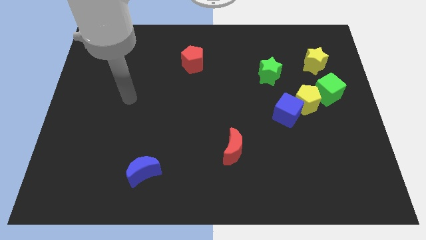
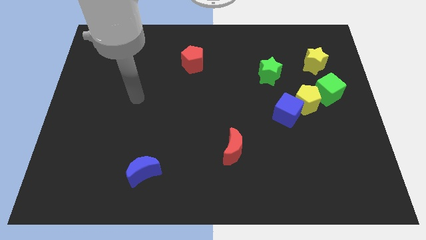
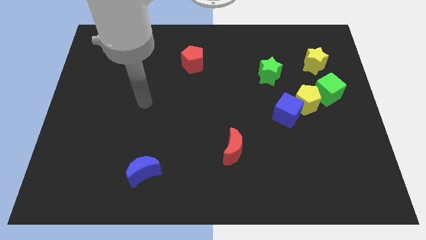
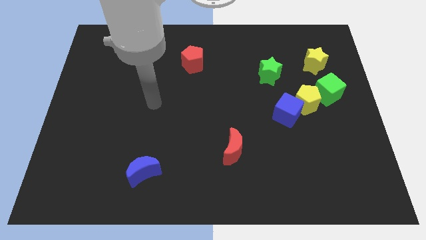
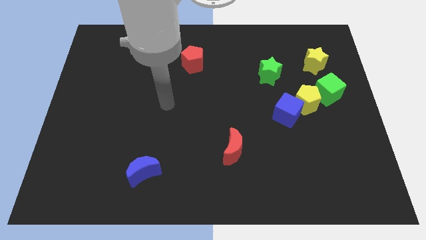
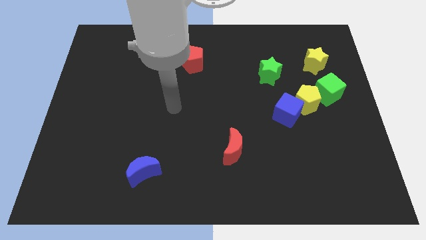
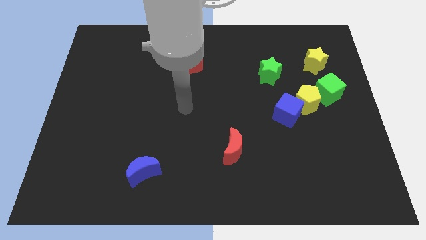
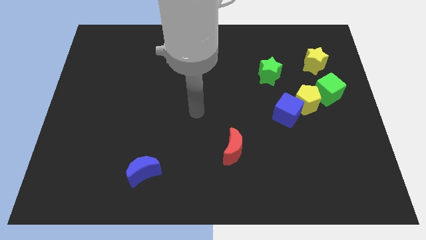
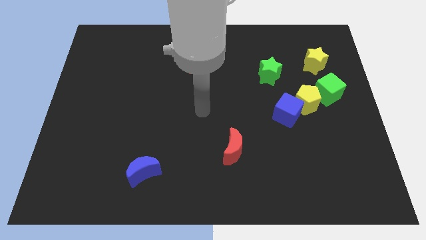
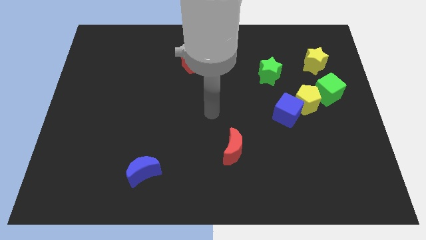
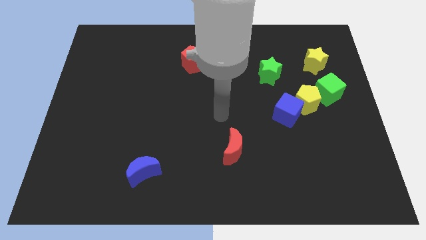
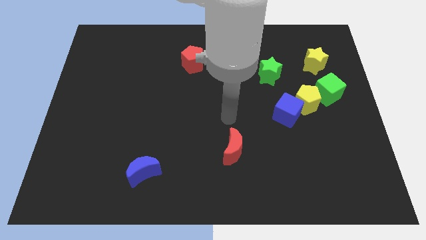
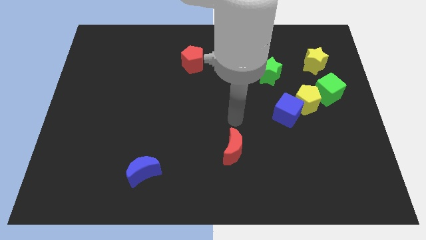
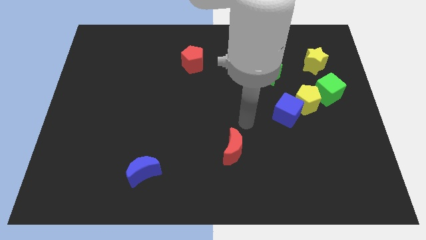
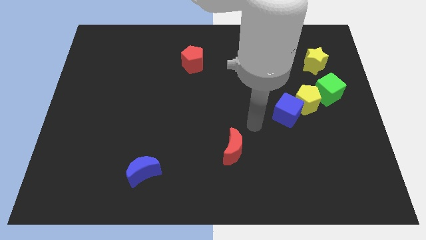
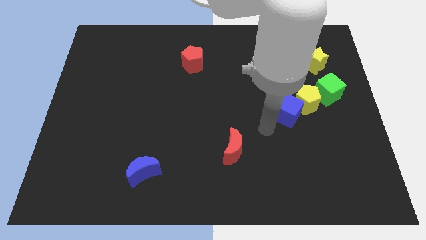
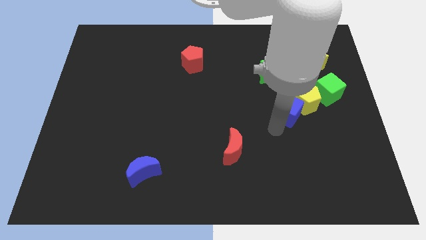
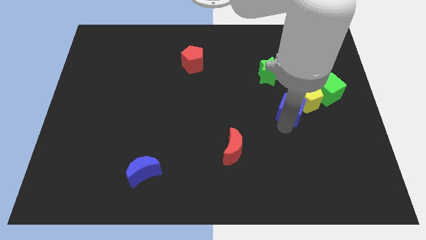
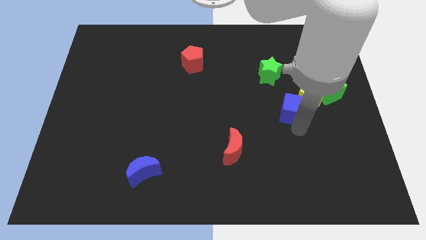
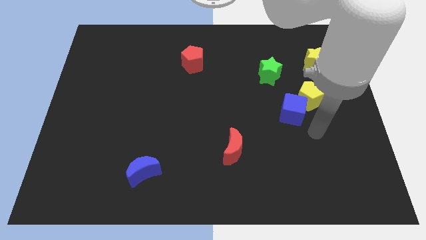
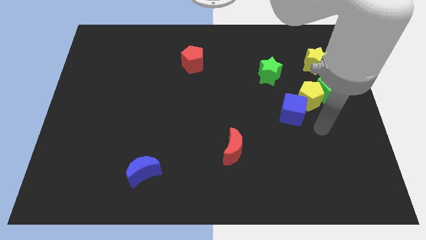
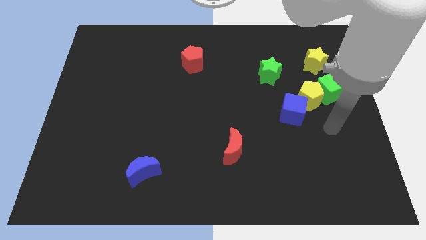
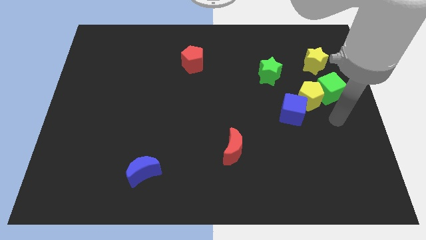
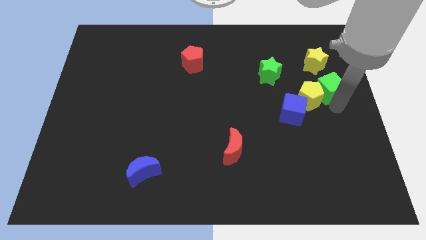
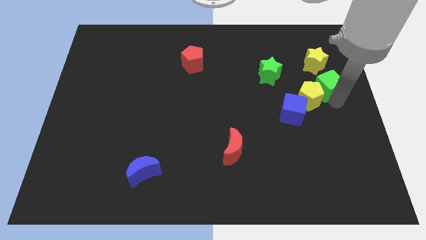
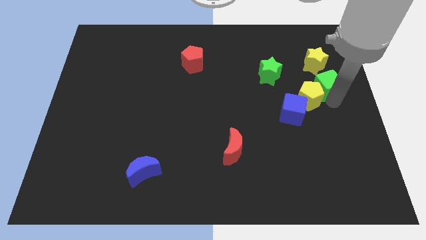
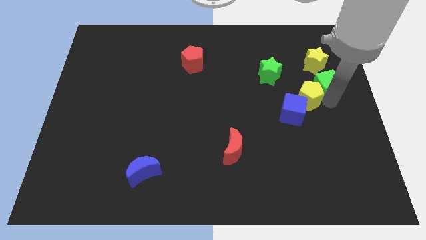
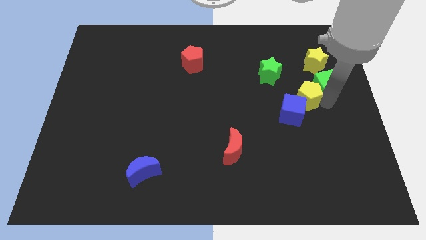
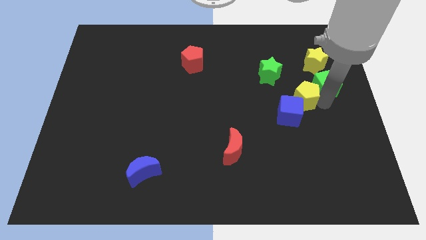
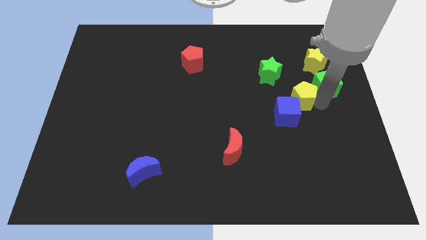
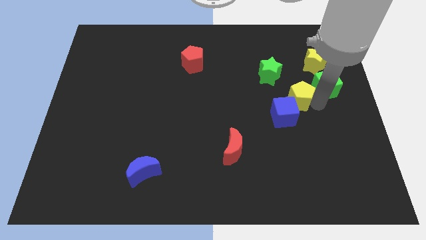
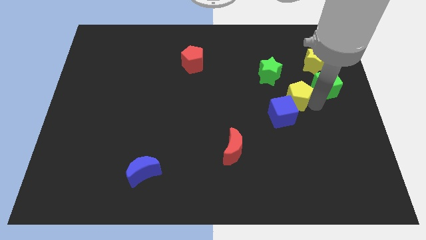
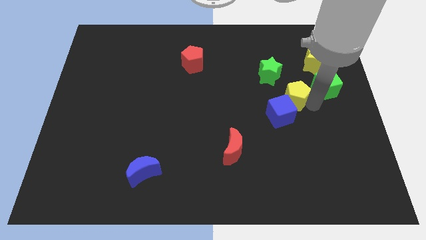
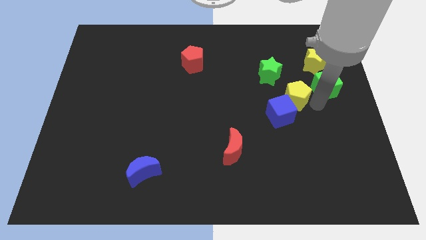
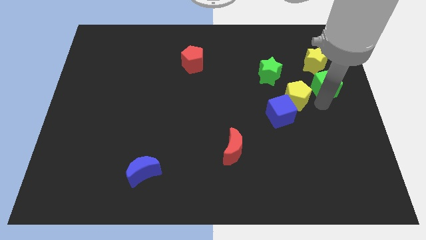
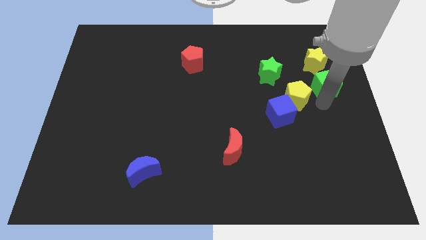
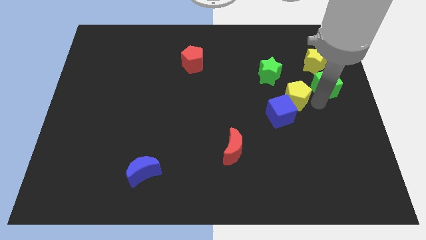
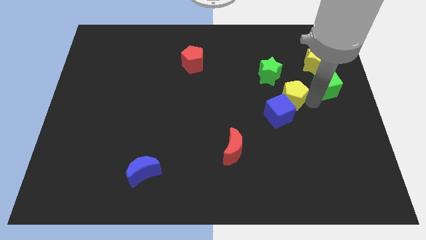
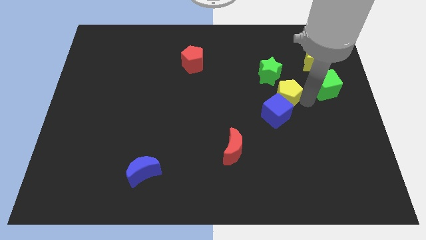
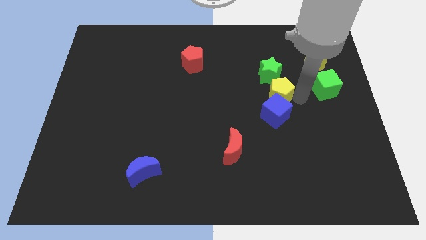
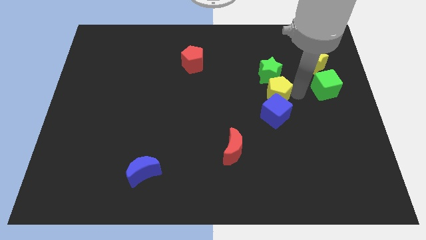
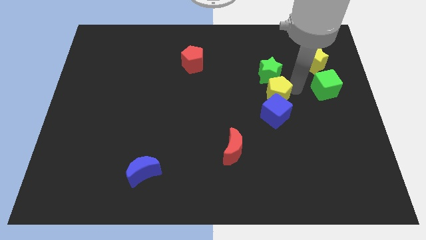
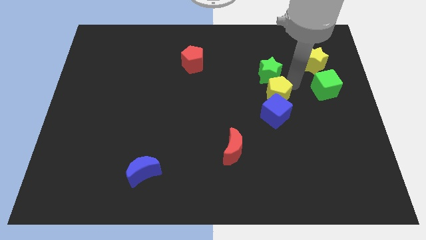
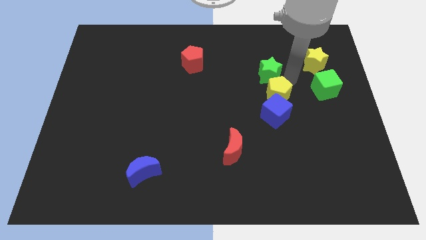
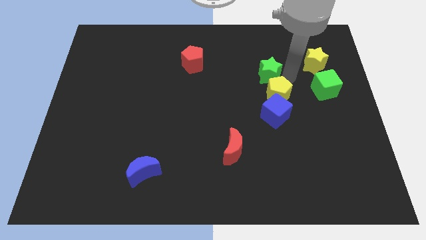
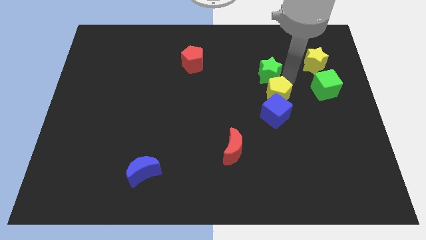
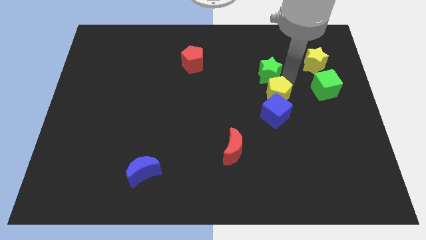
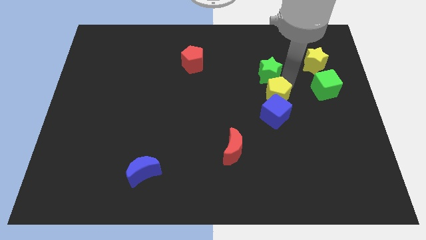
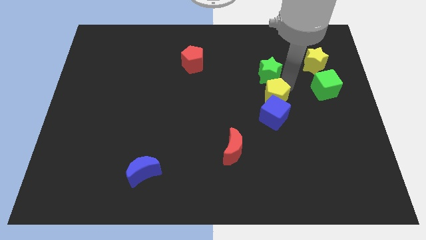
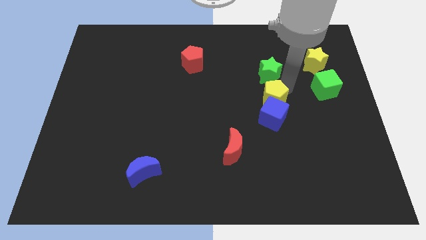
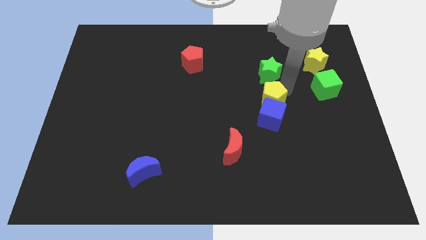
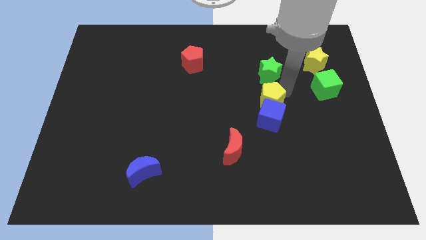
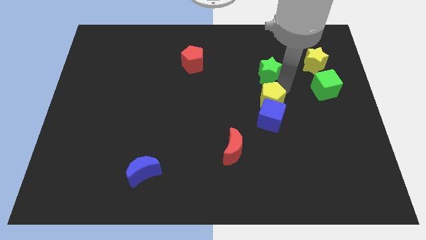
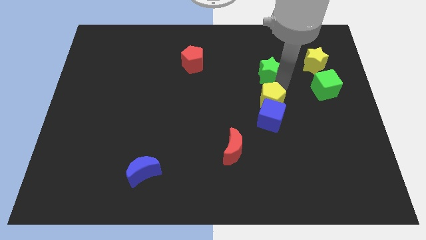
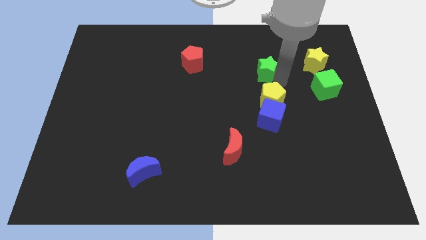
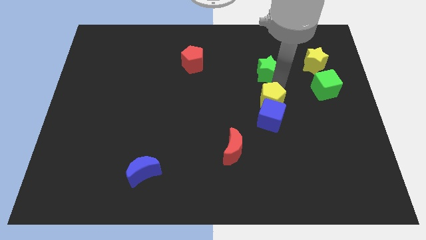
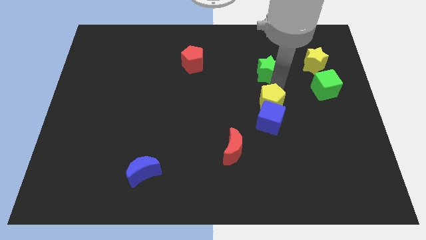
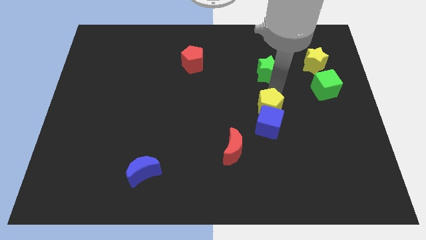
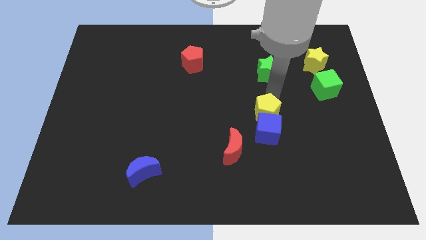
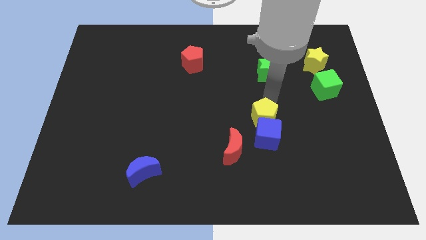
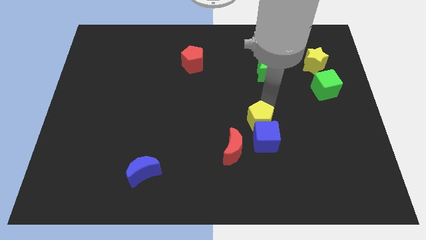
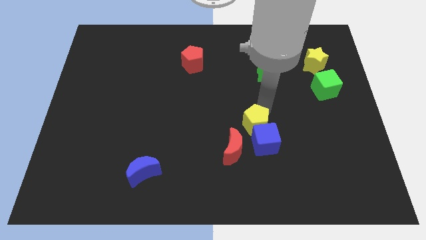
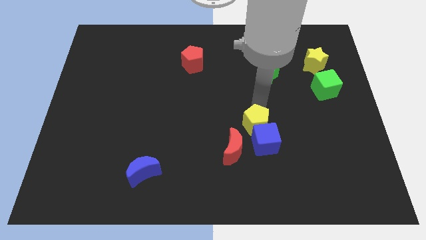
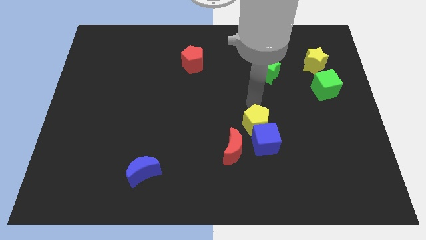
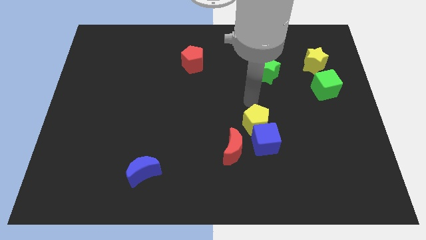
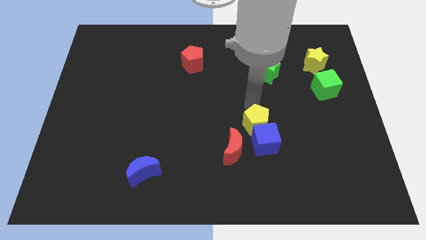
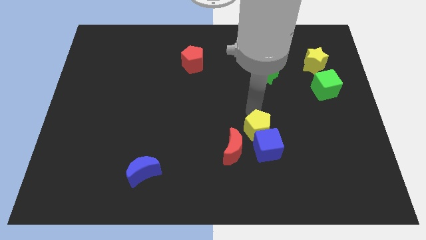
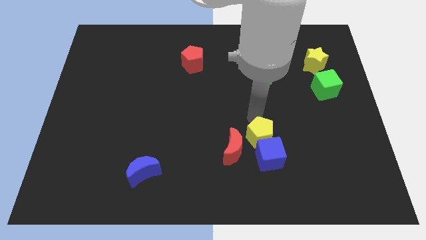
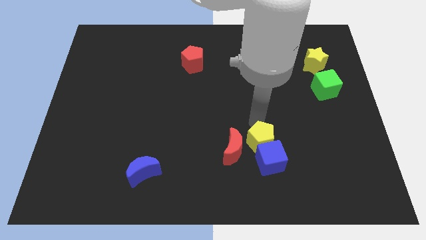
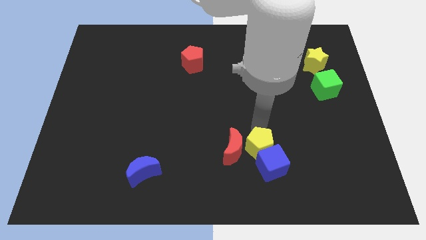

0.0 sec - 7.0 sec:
put the yellow pentagon to the bottom right side of the red moon
